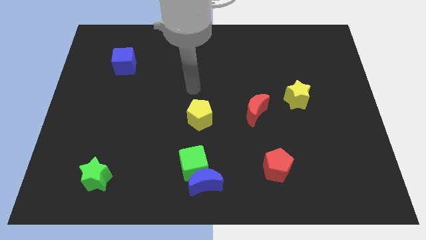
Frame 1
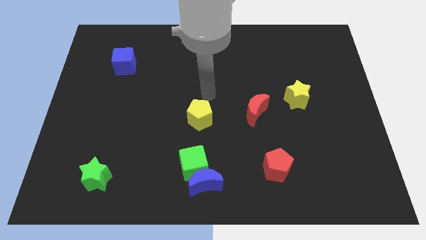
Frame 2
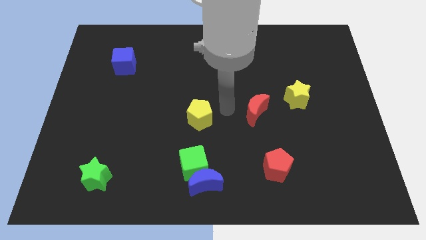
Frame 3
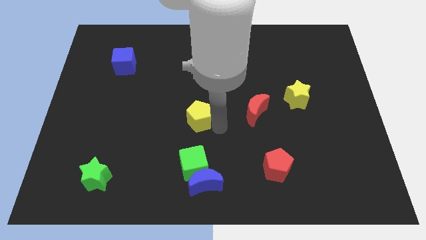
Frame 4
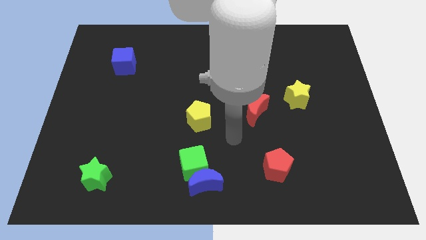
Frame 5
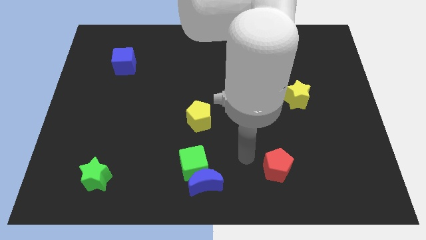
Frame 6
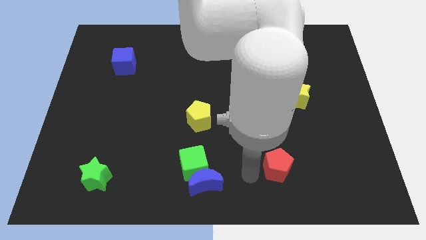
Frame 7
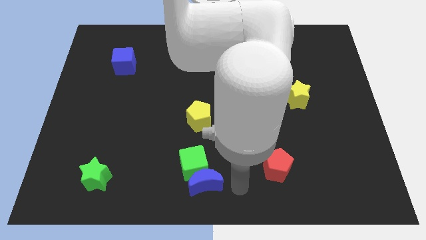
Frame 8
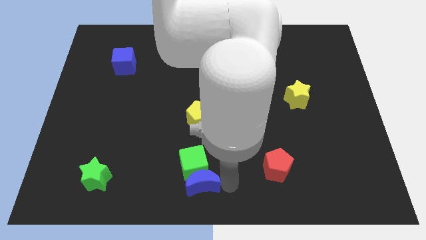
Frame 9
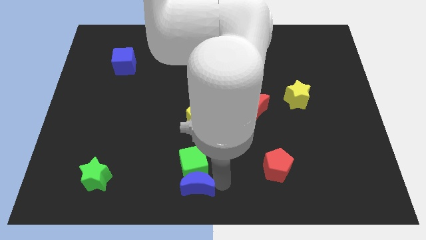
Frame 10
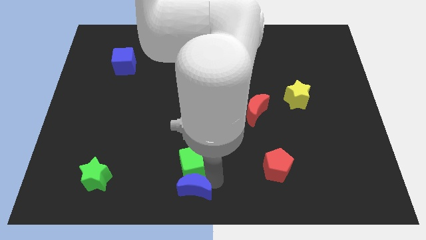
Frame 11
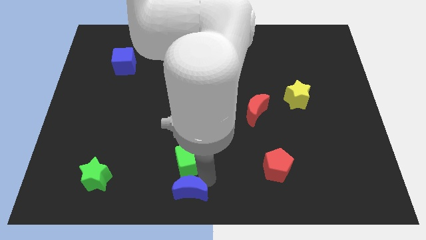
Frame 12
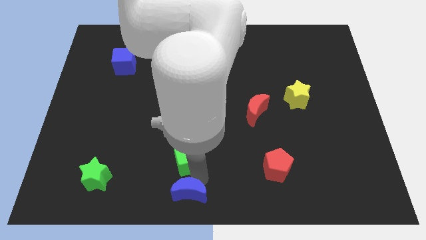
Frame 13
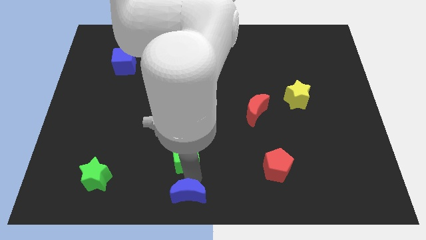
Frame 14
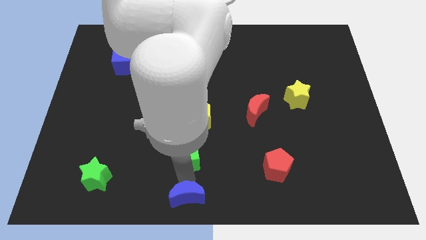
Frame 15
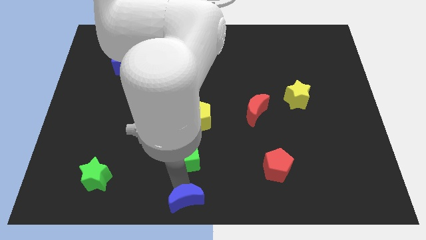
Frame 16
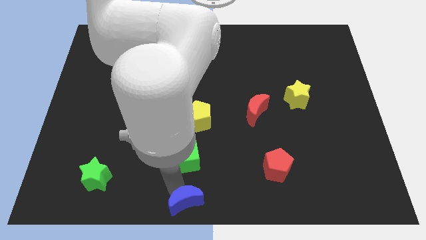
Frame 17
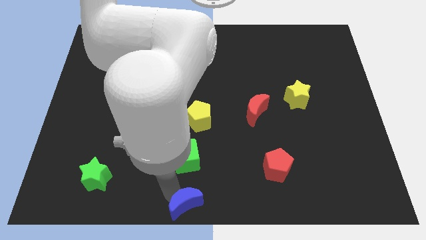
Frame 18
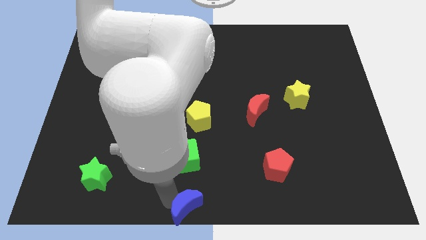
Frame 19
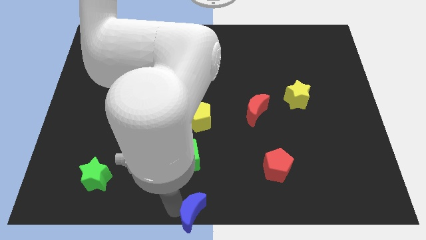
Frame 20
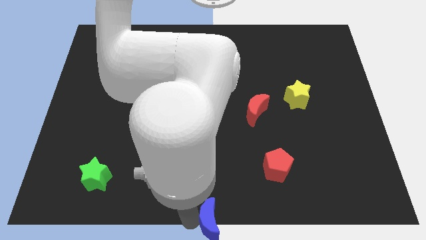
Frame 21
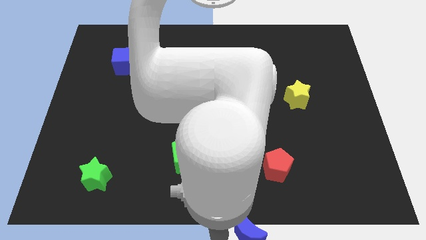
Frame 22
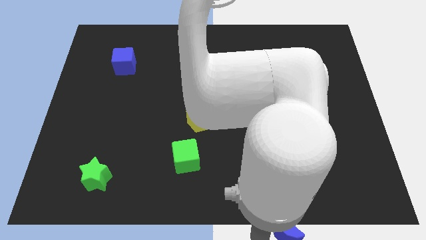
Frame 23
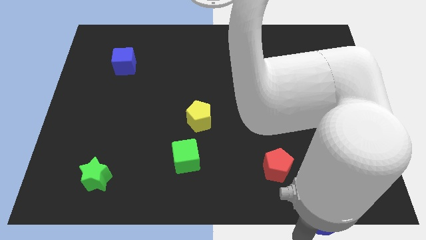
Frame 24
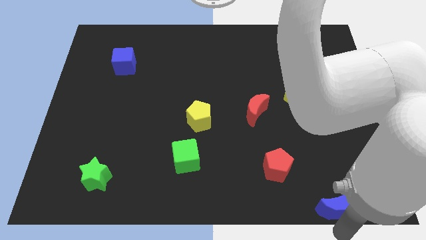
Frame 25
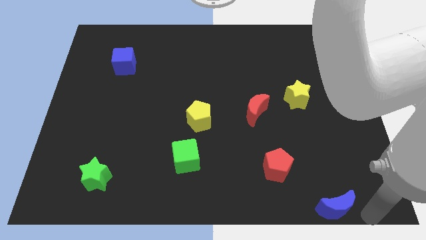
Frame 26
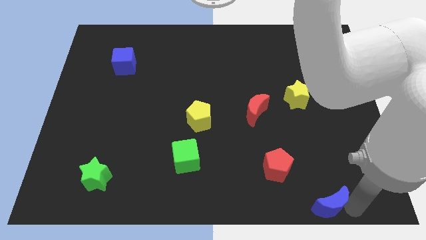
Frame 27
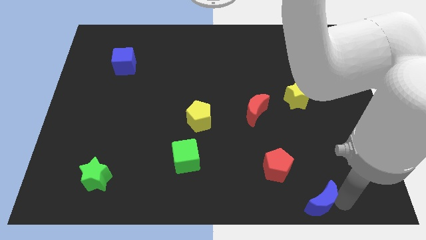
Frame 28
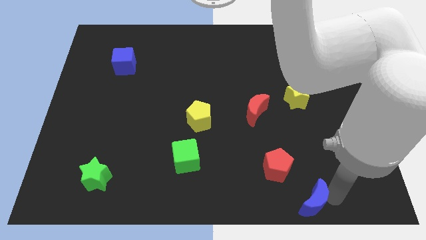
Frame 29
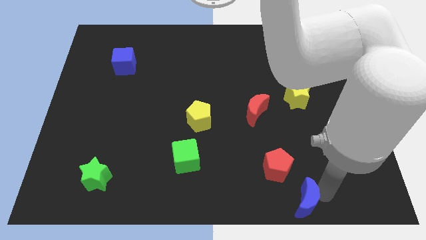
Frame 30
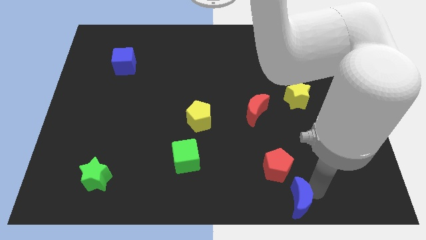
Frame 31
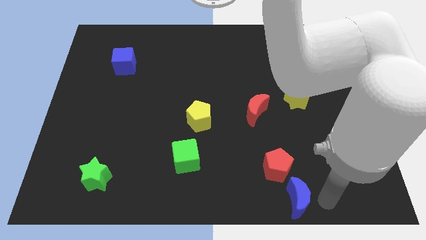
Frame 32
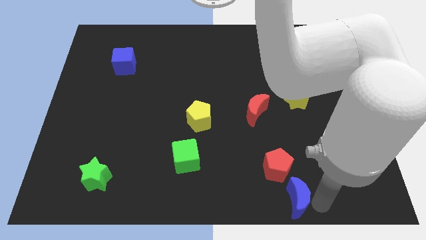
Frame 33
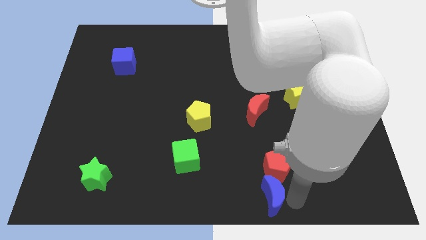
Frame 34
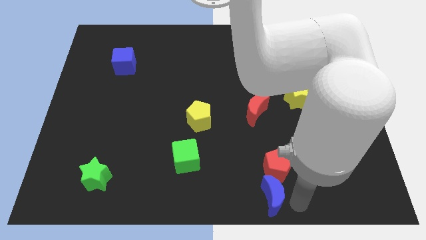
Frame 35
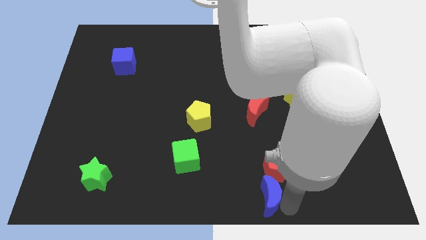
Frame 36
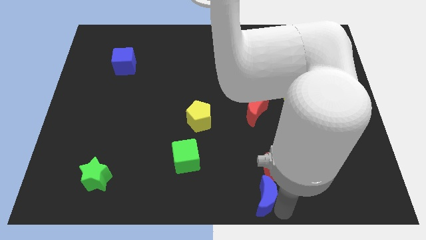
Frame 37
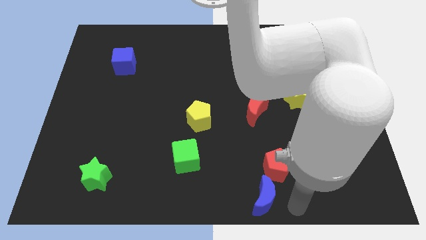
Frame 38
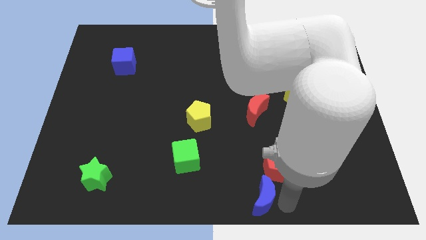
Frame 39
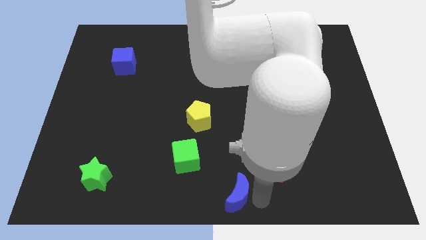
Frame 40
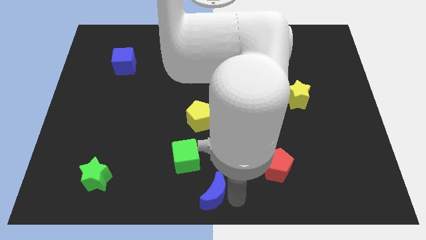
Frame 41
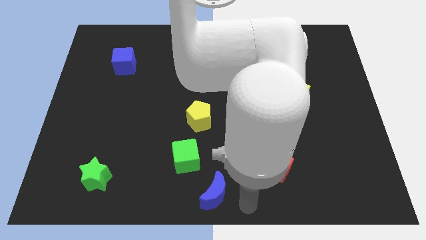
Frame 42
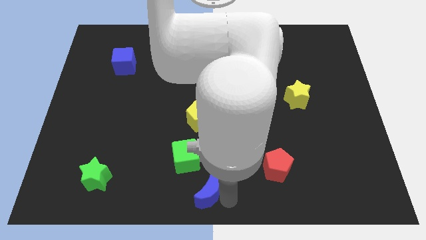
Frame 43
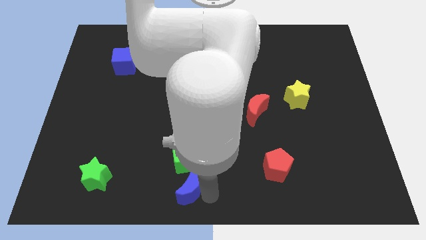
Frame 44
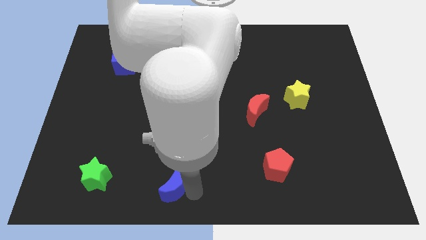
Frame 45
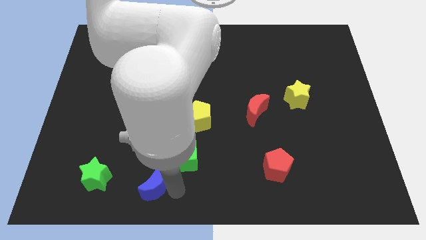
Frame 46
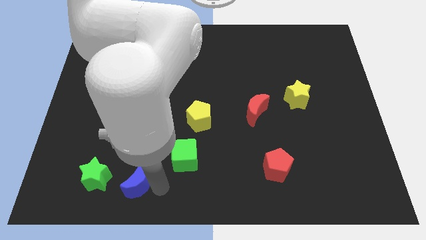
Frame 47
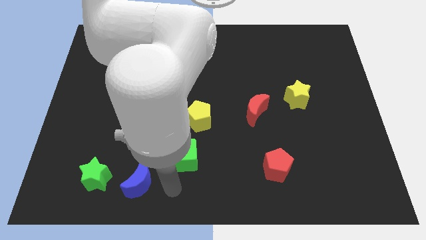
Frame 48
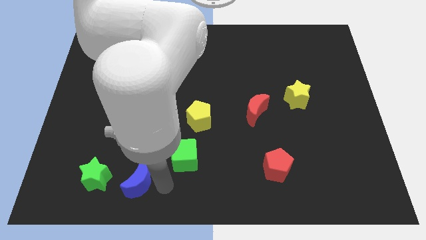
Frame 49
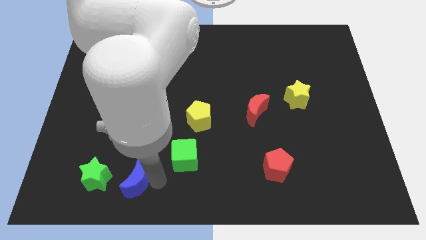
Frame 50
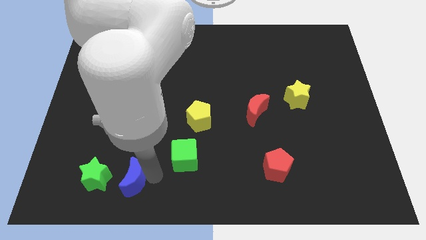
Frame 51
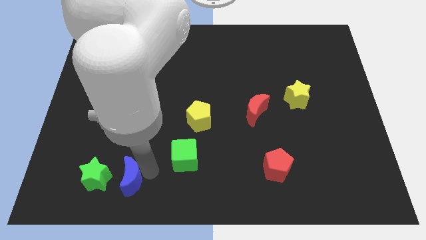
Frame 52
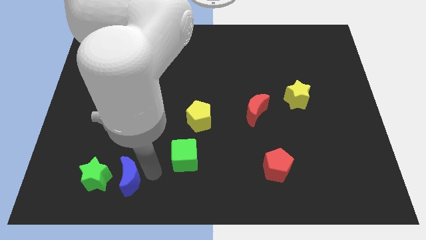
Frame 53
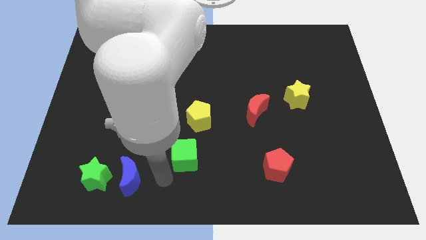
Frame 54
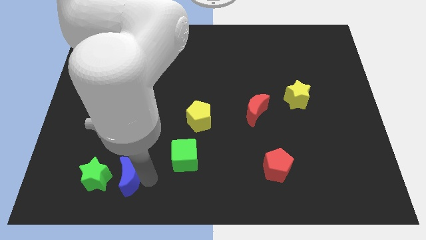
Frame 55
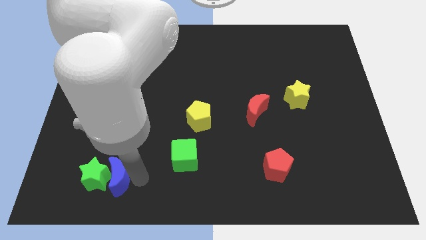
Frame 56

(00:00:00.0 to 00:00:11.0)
put the blue moon to the green star

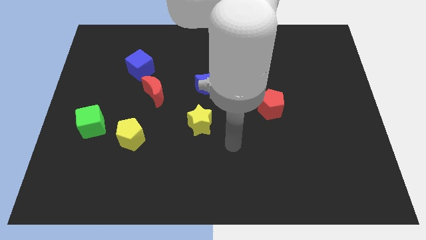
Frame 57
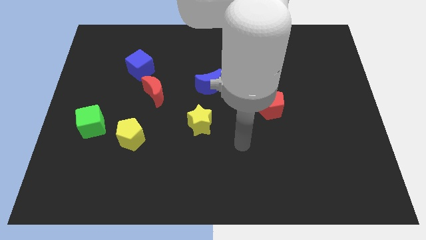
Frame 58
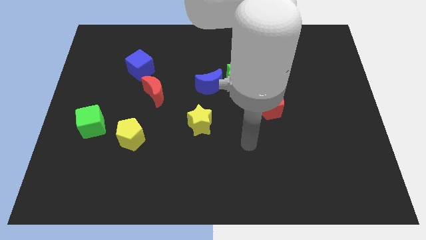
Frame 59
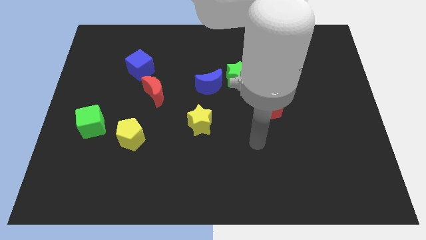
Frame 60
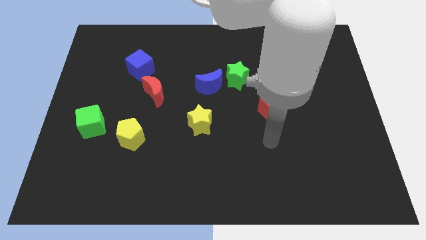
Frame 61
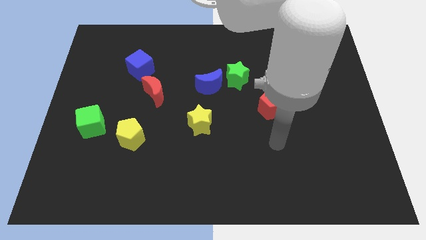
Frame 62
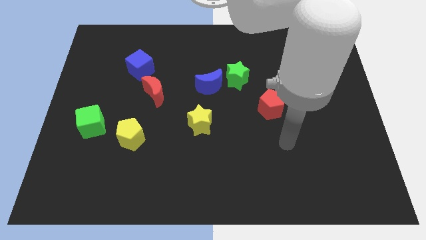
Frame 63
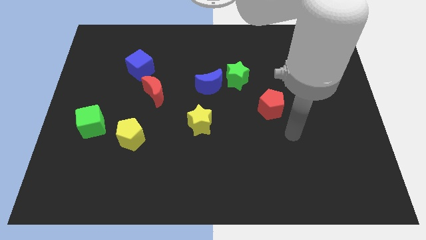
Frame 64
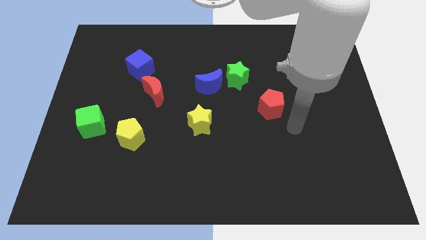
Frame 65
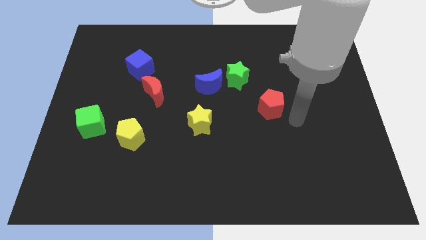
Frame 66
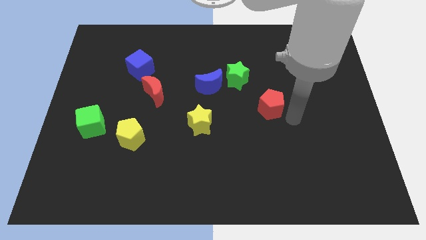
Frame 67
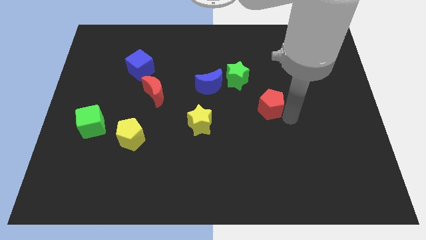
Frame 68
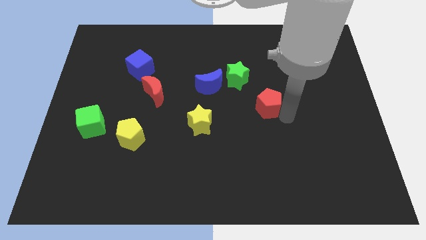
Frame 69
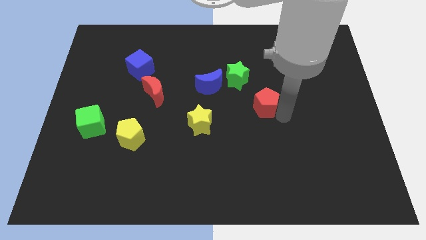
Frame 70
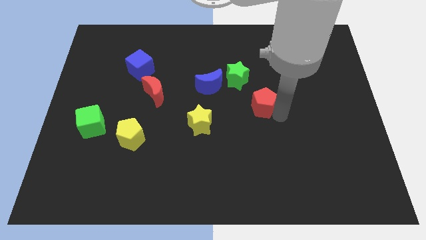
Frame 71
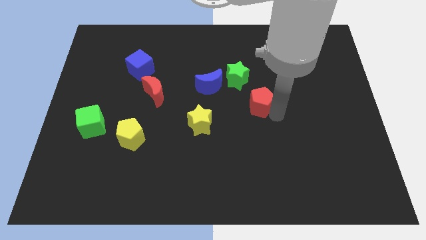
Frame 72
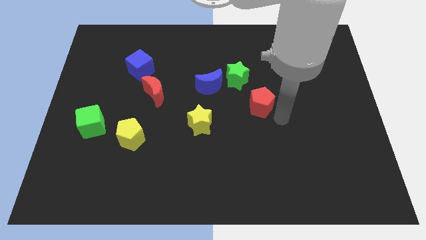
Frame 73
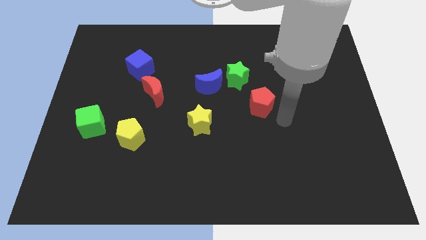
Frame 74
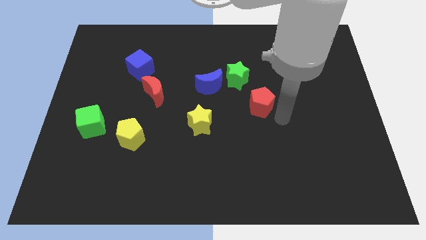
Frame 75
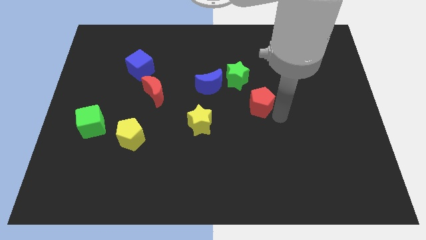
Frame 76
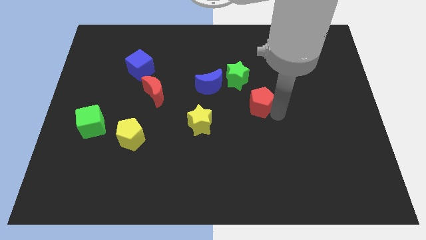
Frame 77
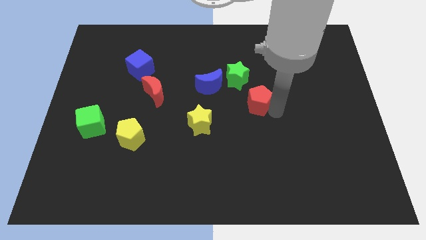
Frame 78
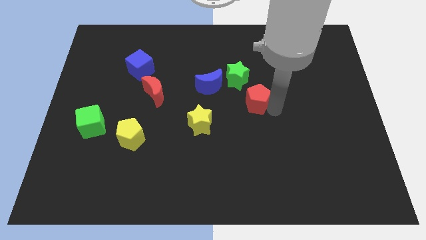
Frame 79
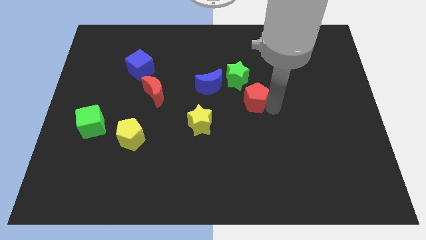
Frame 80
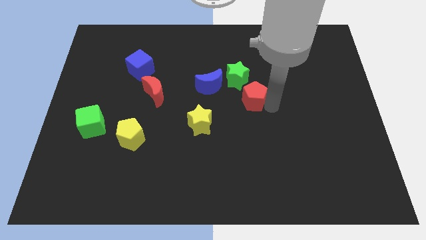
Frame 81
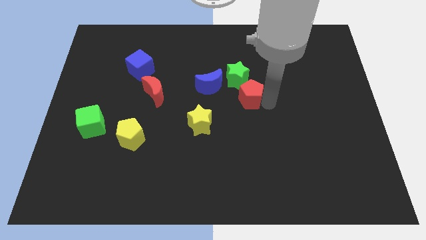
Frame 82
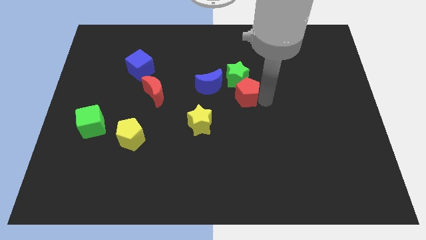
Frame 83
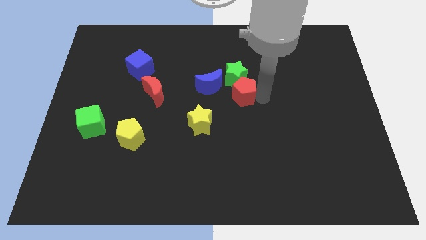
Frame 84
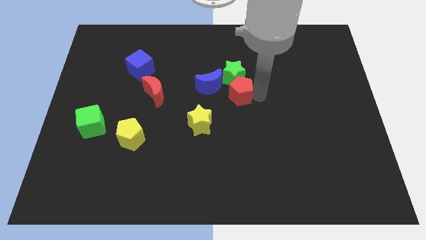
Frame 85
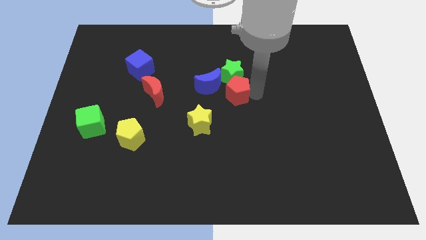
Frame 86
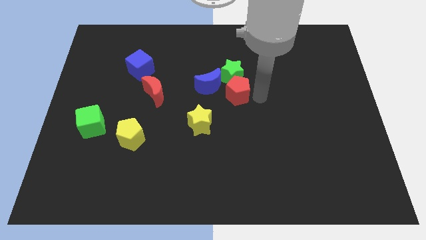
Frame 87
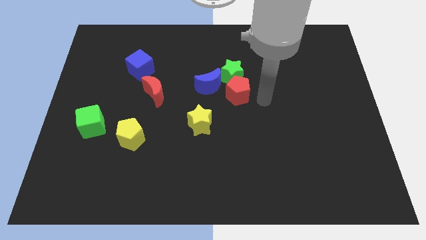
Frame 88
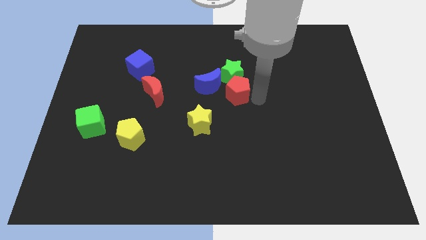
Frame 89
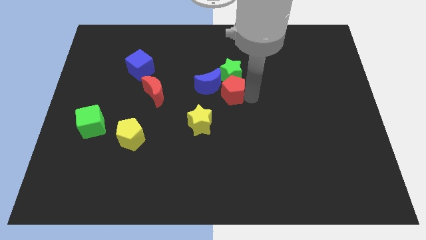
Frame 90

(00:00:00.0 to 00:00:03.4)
put the red pentagon next to the blue moon
